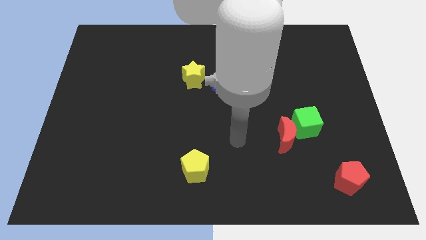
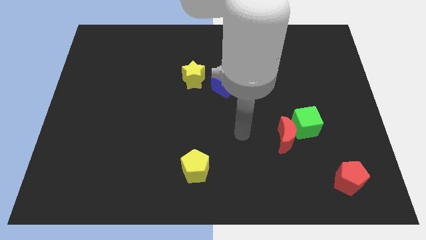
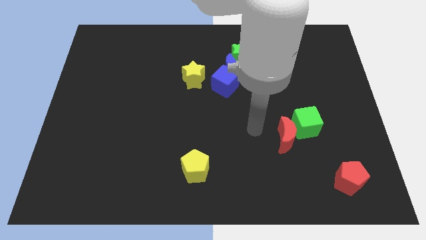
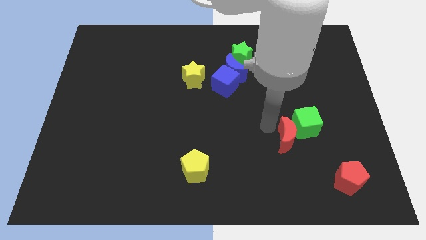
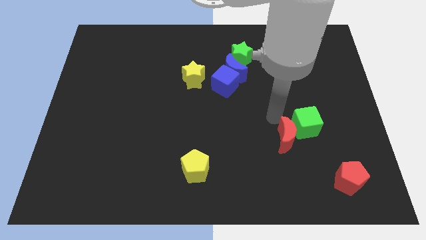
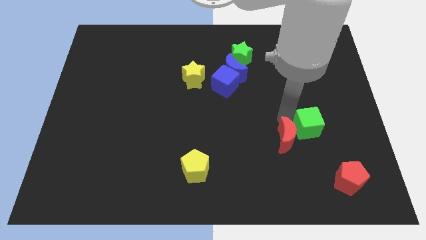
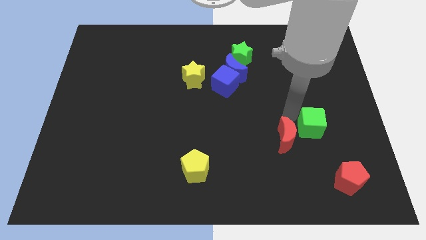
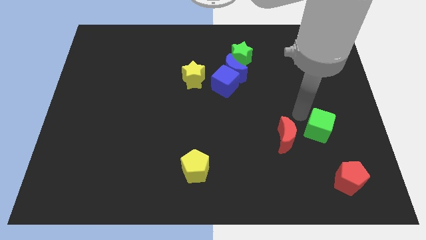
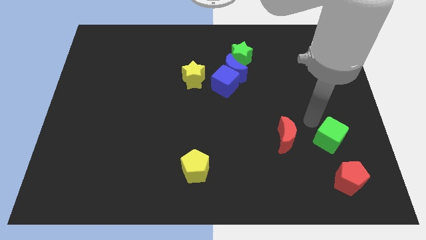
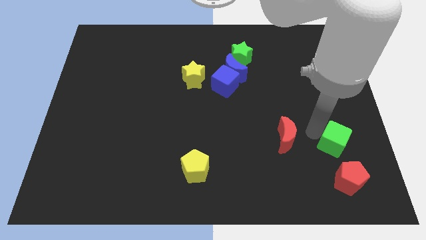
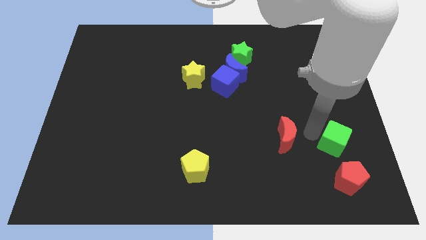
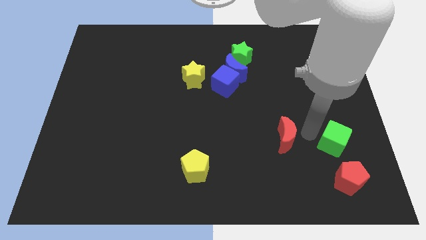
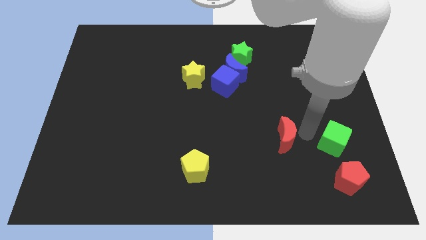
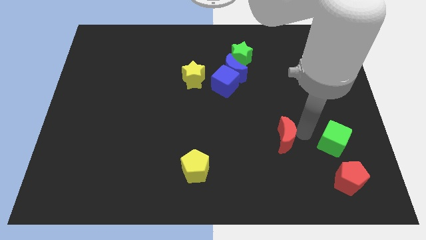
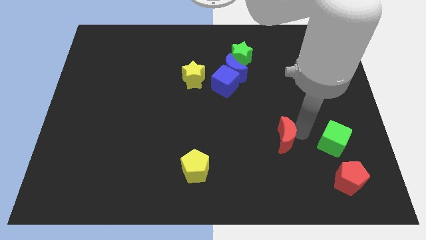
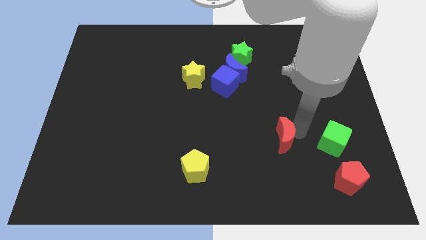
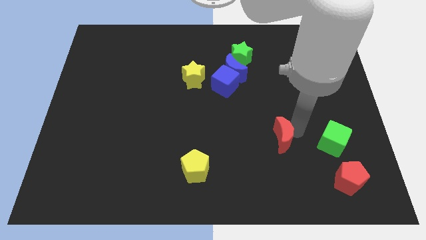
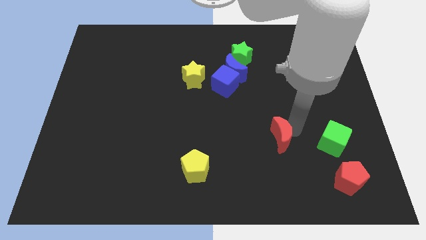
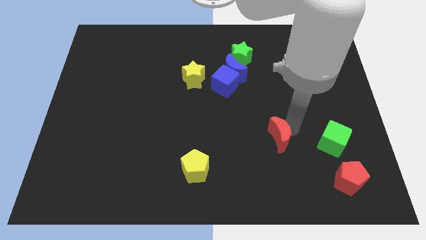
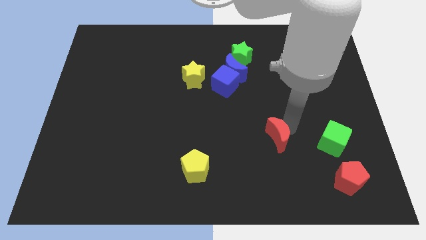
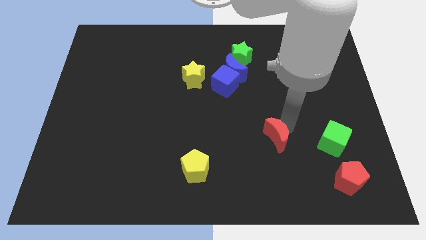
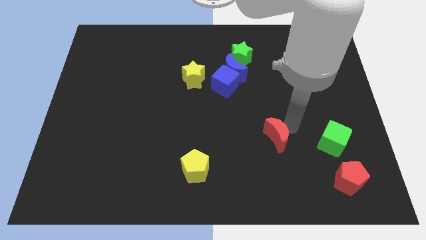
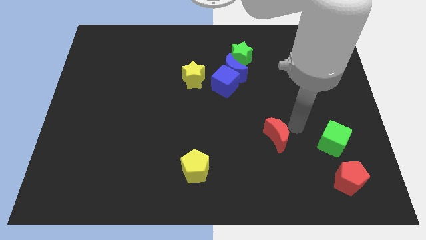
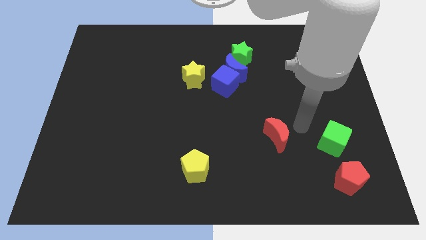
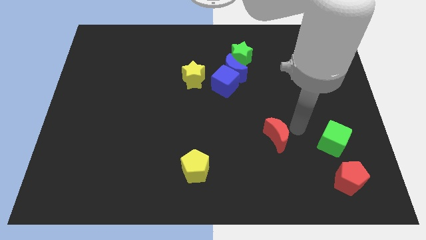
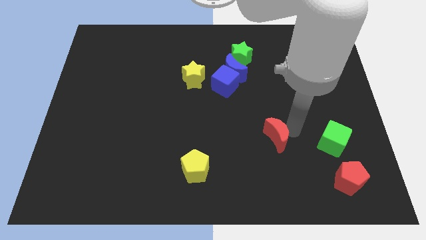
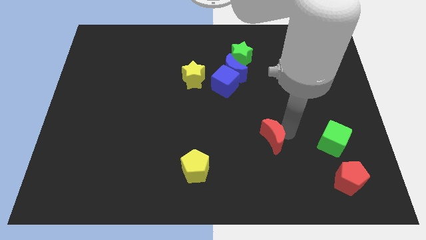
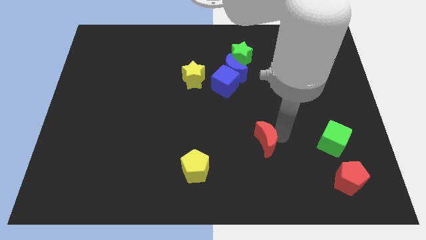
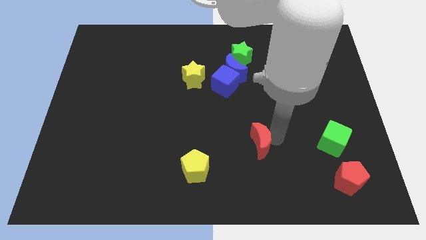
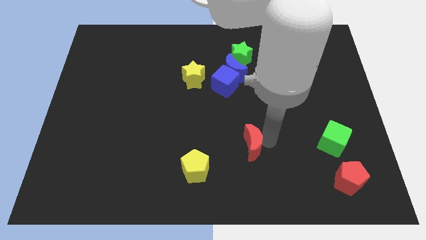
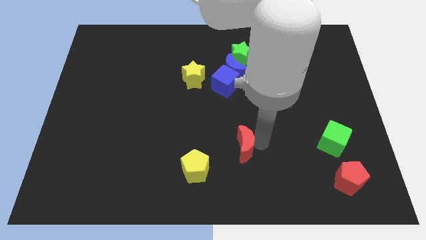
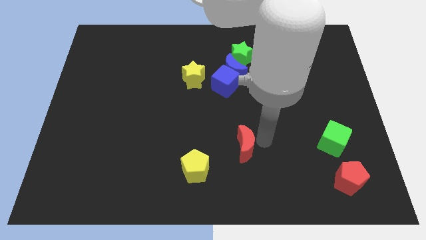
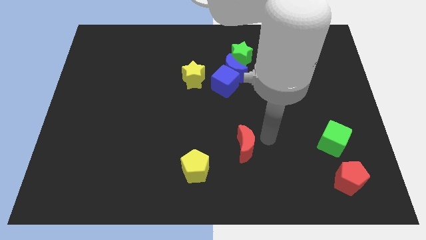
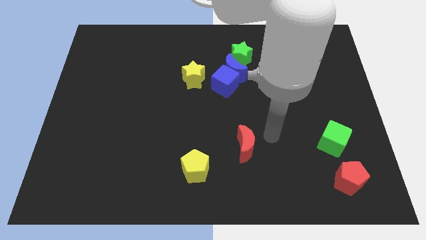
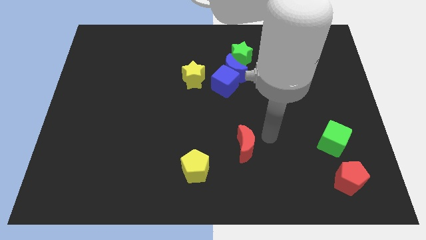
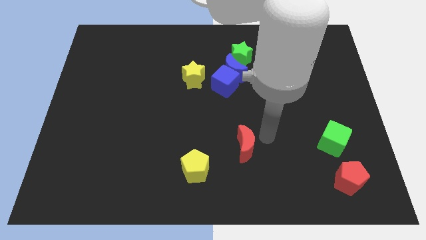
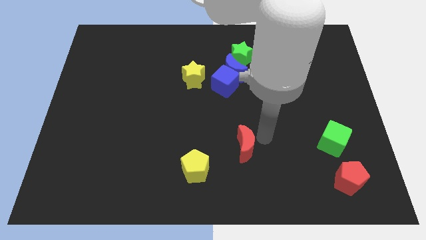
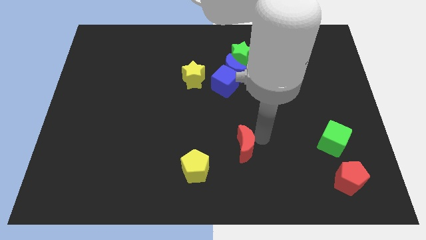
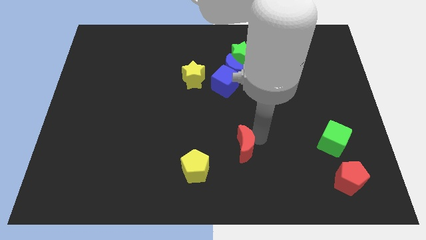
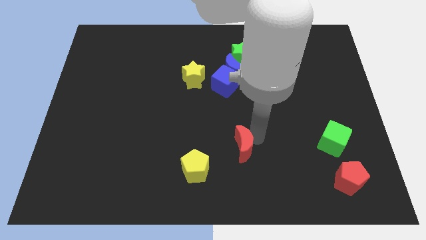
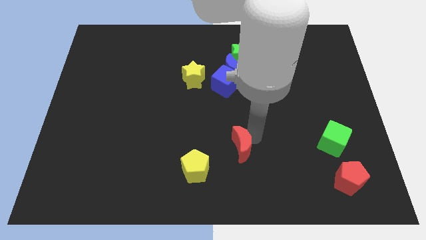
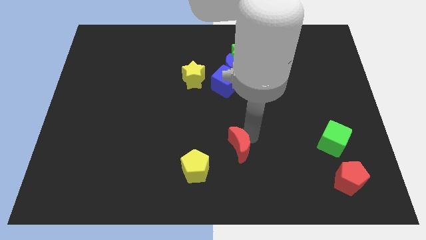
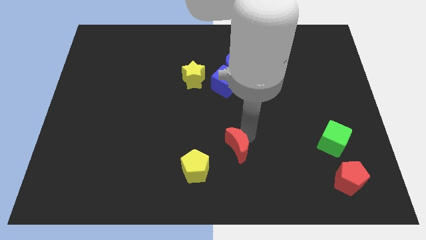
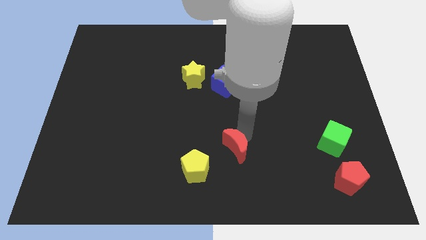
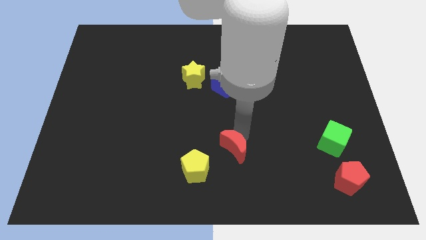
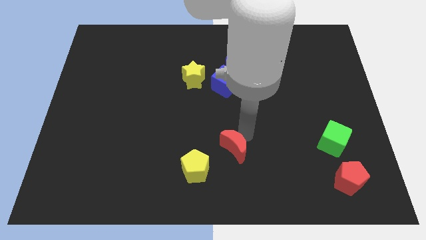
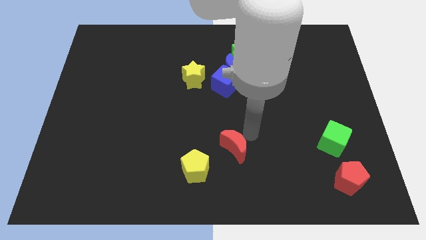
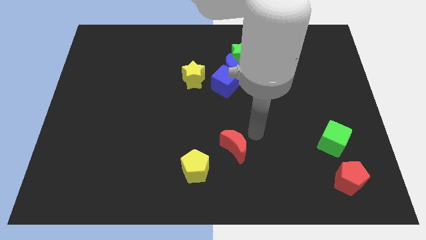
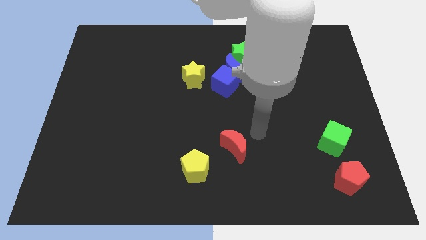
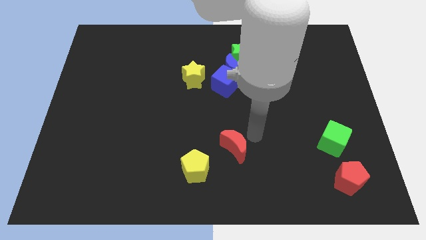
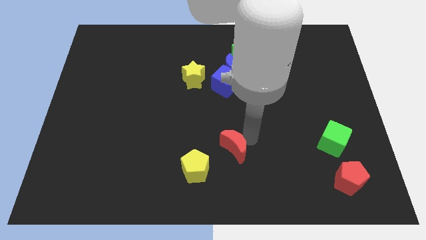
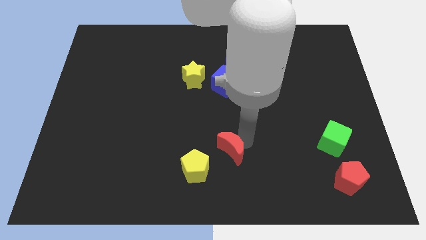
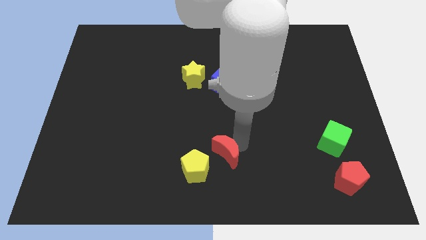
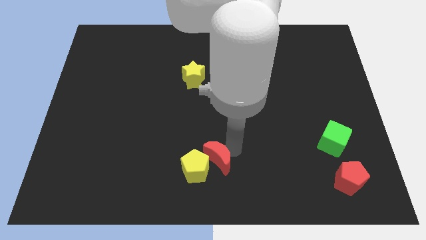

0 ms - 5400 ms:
put the red moon next to the yellow pentagon

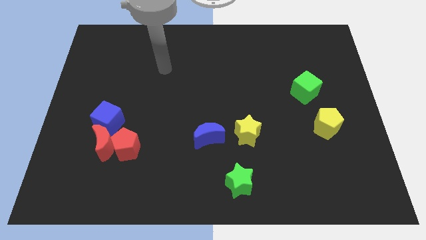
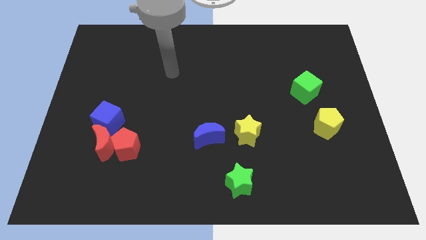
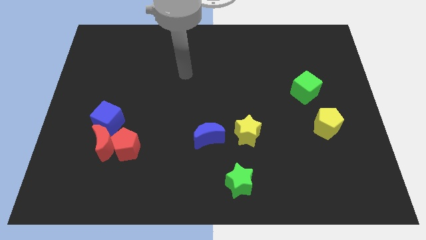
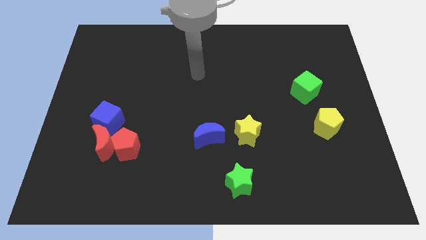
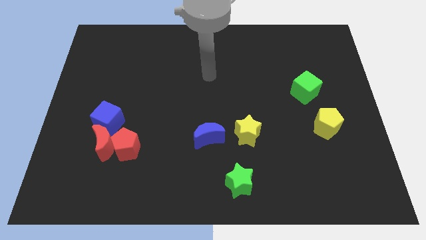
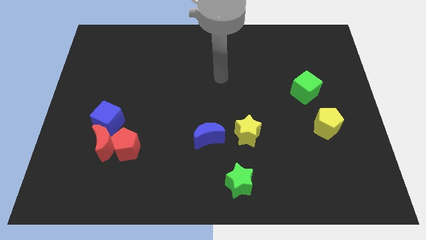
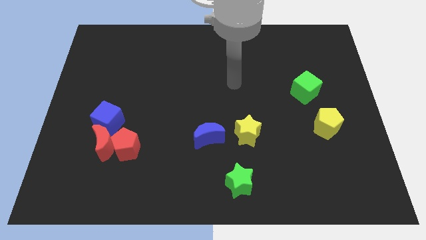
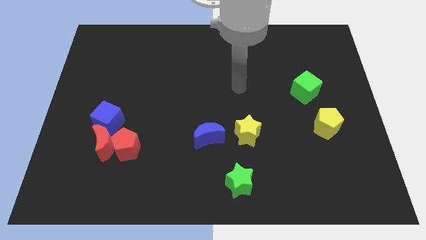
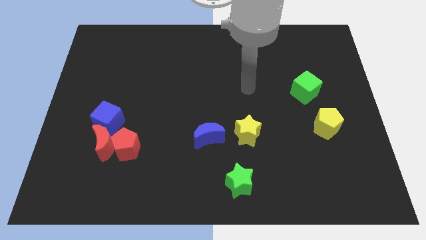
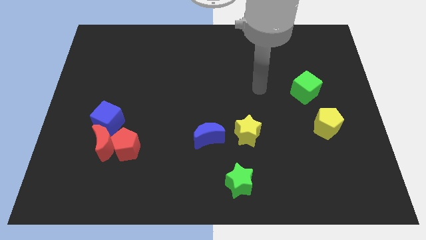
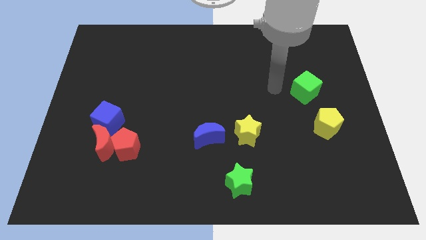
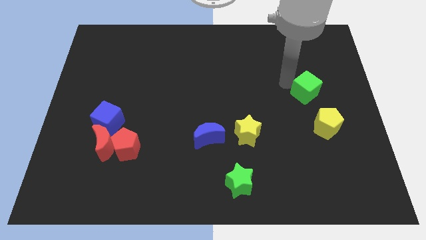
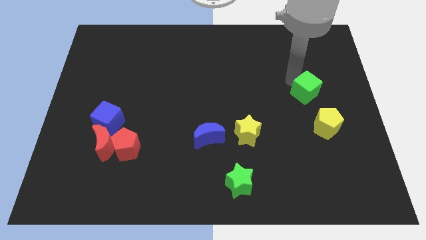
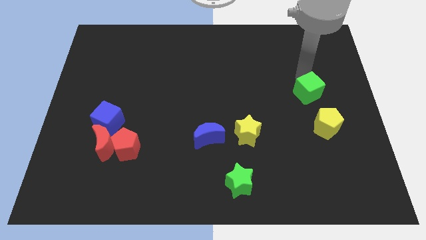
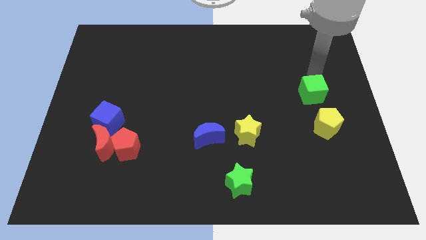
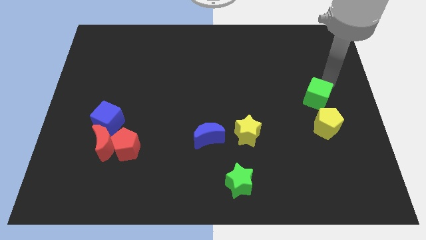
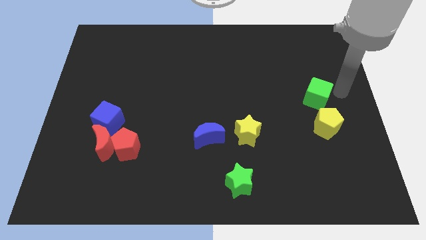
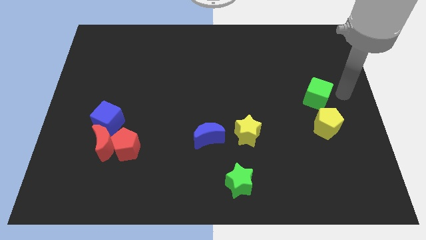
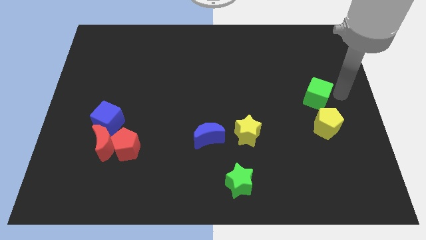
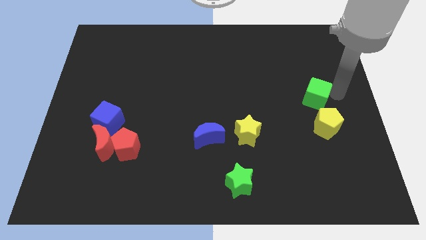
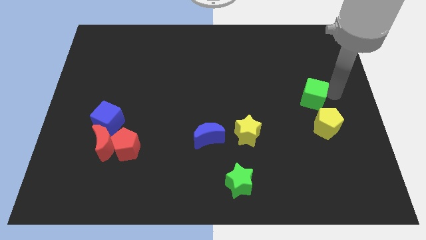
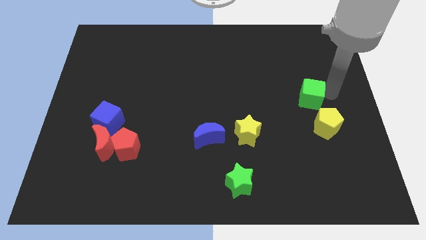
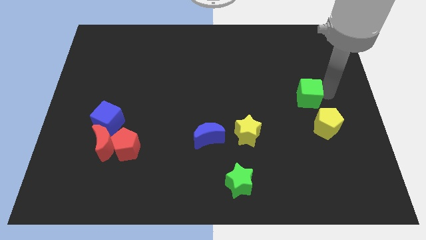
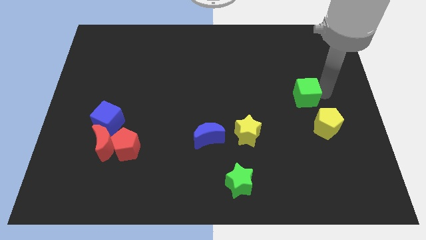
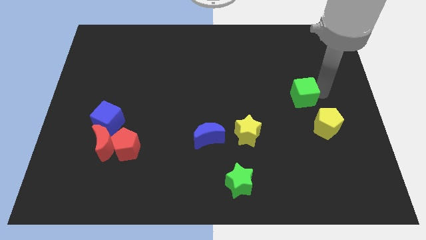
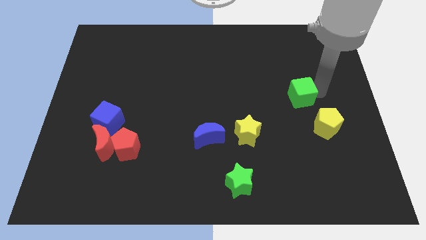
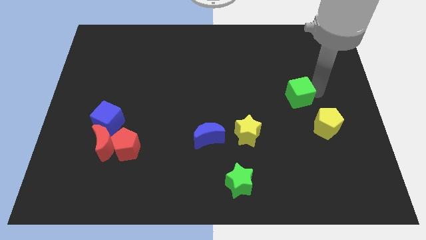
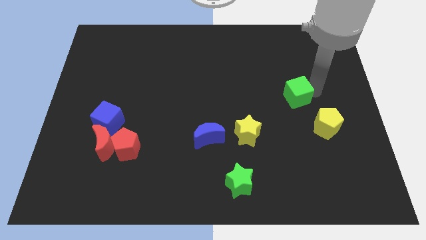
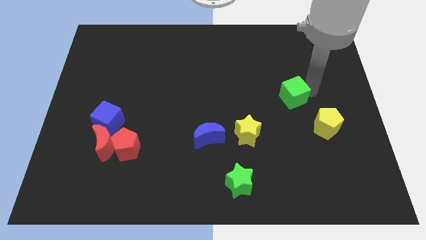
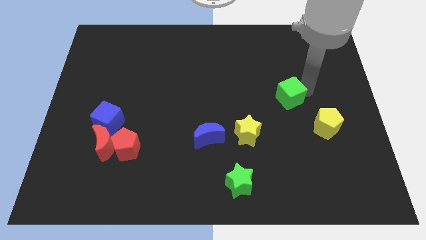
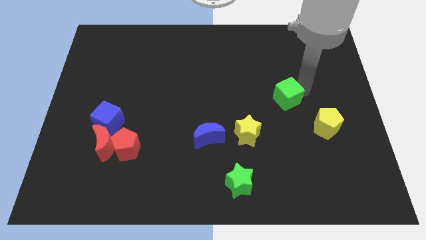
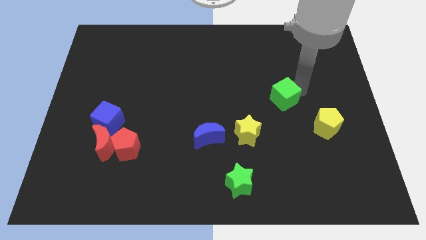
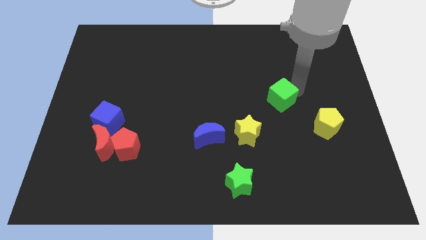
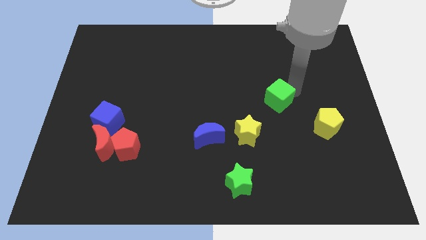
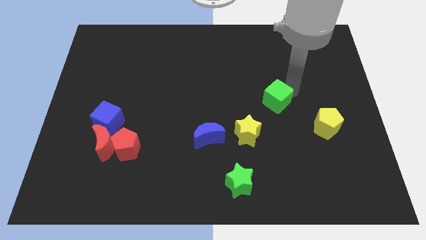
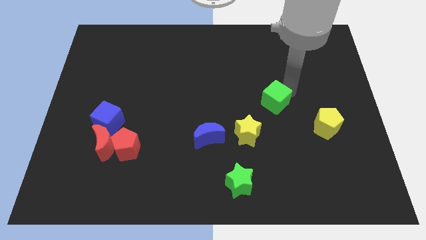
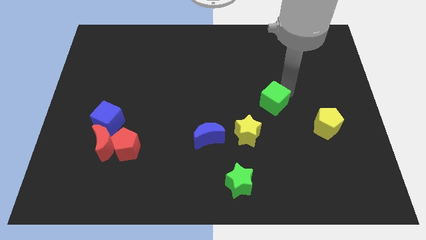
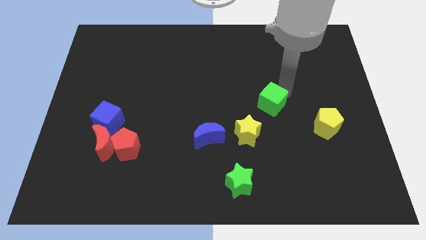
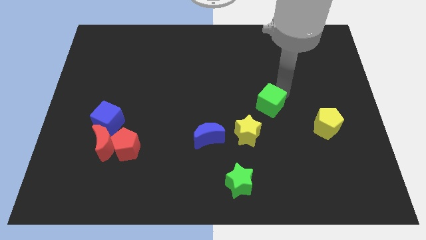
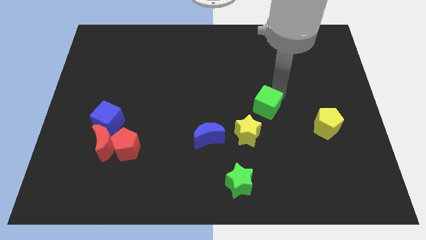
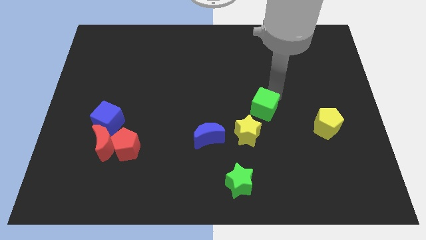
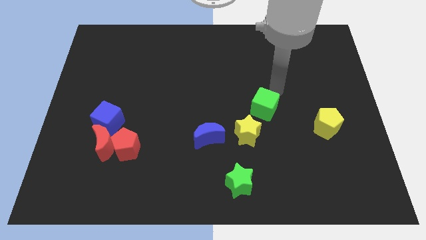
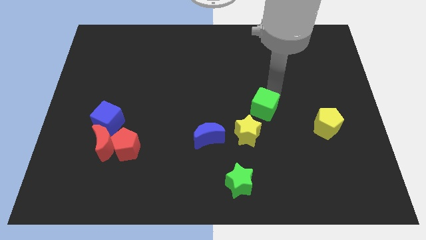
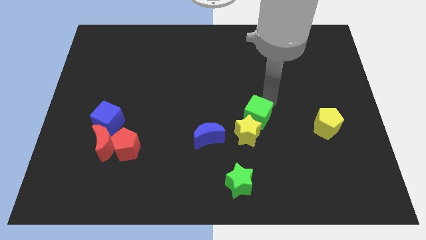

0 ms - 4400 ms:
slide the green cube next to the yellow star
